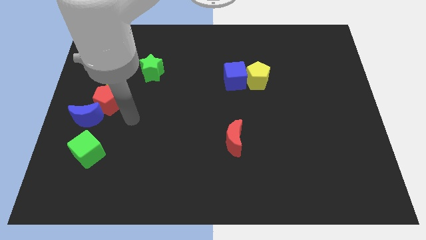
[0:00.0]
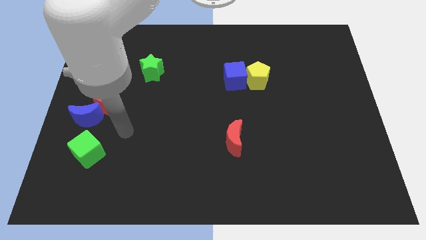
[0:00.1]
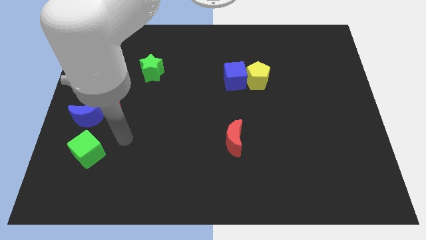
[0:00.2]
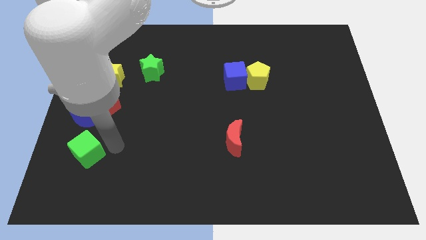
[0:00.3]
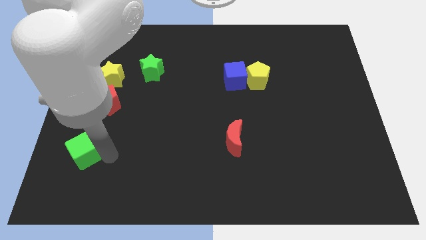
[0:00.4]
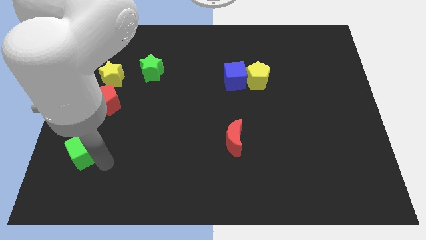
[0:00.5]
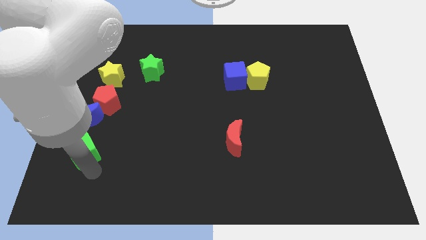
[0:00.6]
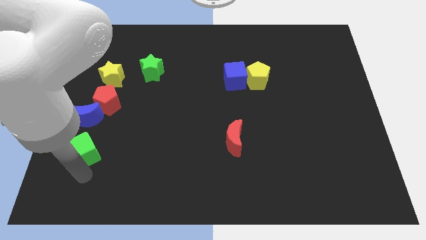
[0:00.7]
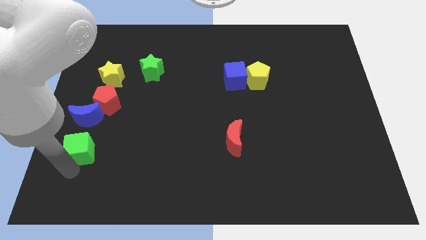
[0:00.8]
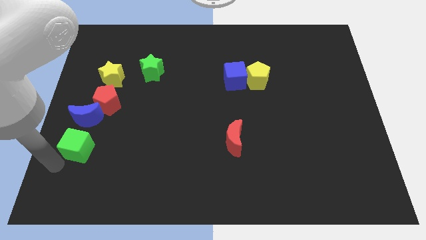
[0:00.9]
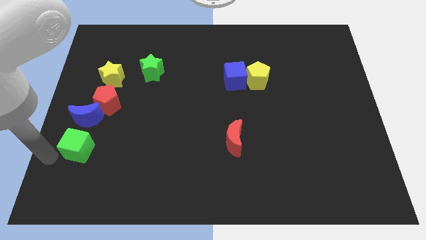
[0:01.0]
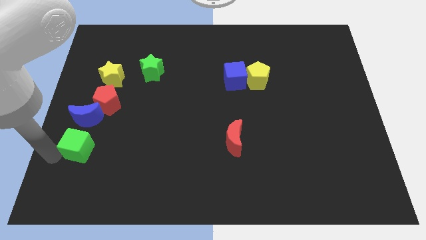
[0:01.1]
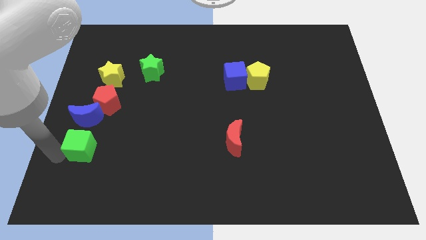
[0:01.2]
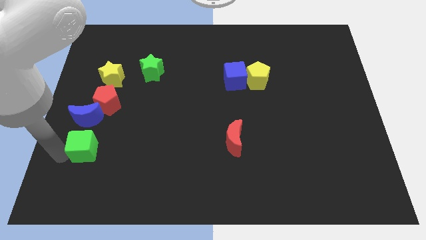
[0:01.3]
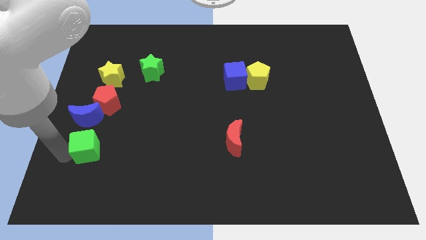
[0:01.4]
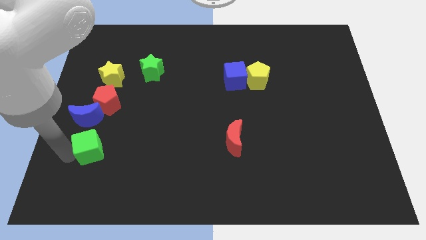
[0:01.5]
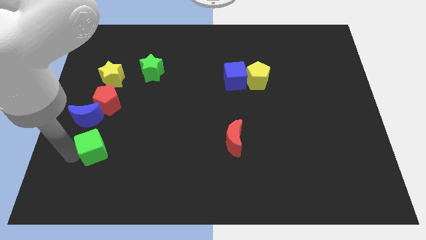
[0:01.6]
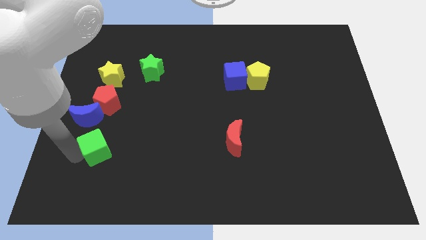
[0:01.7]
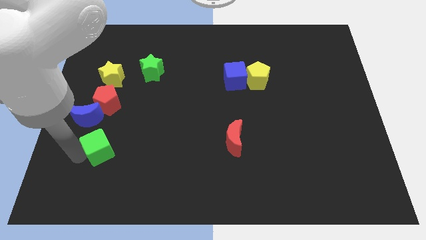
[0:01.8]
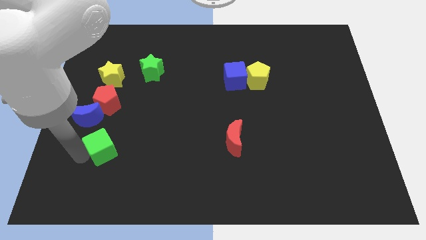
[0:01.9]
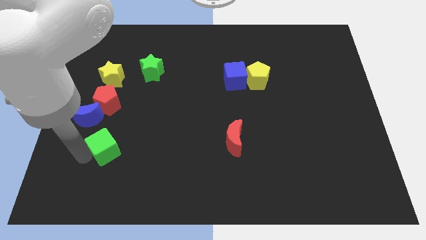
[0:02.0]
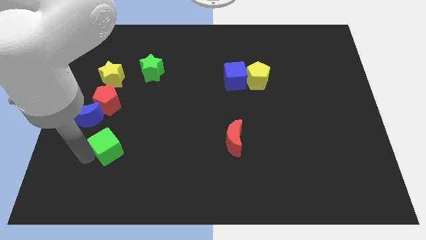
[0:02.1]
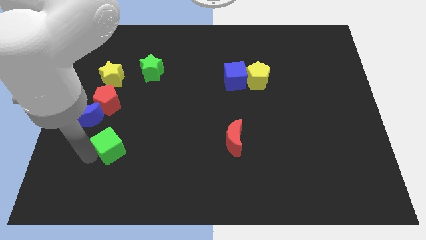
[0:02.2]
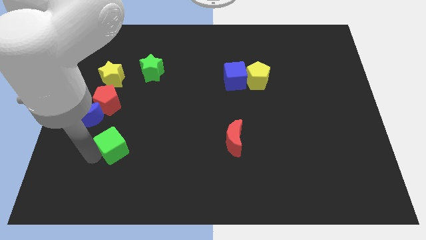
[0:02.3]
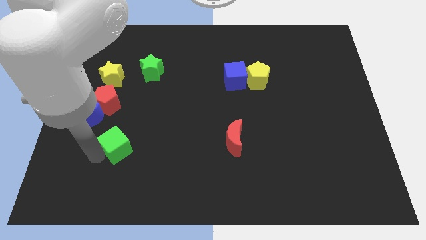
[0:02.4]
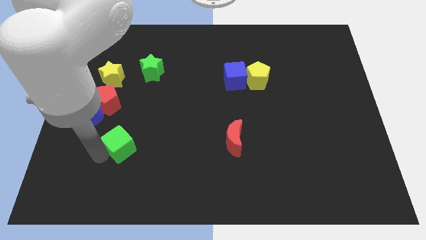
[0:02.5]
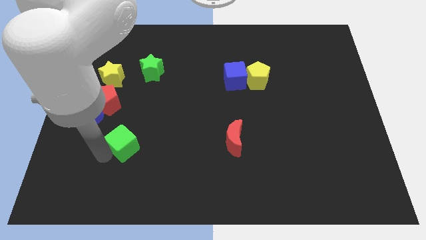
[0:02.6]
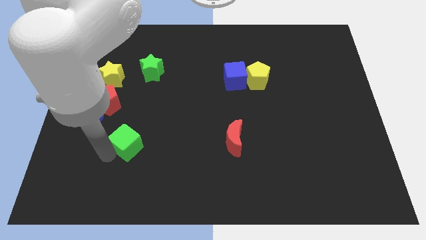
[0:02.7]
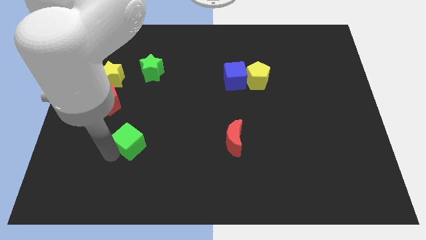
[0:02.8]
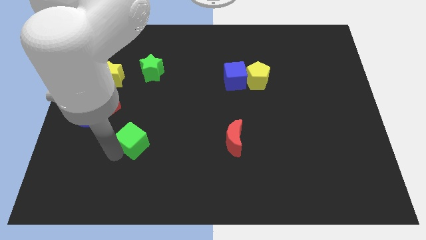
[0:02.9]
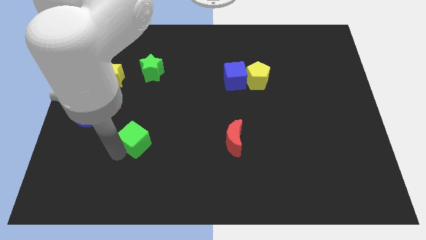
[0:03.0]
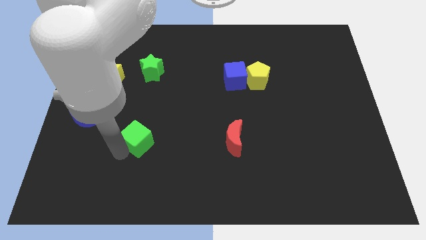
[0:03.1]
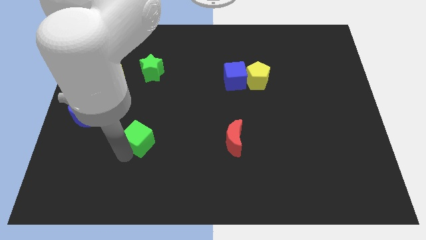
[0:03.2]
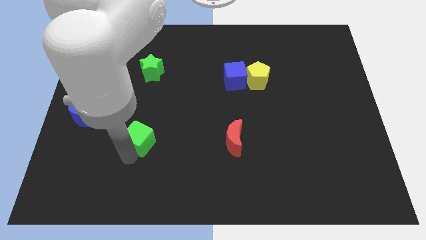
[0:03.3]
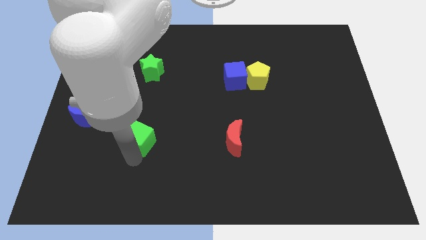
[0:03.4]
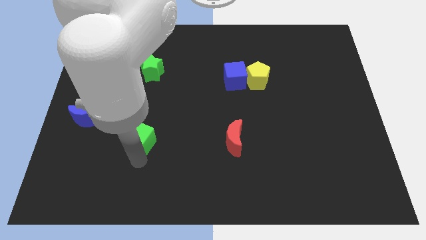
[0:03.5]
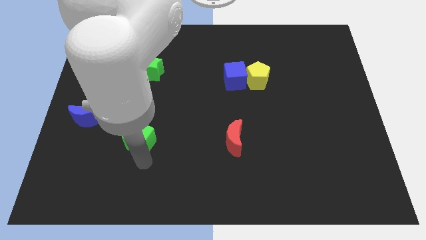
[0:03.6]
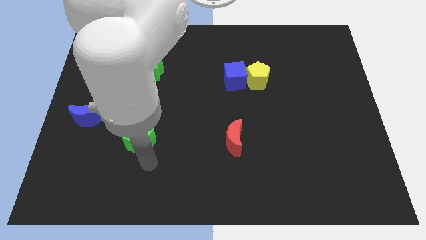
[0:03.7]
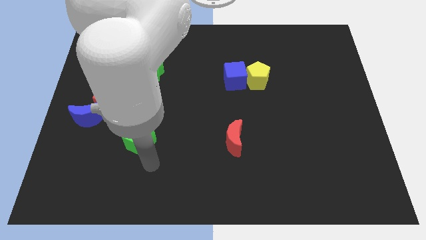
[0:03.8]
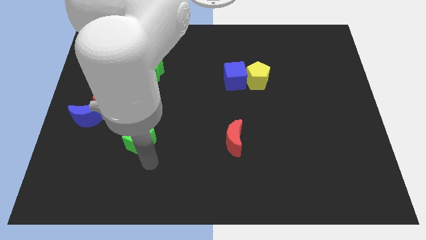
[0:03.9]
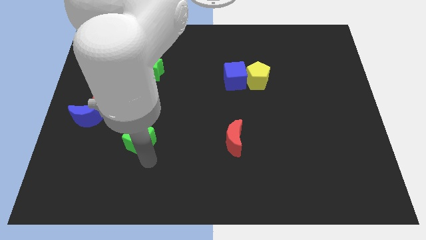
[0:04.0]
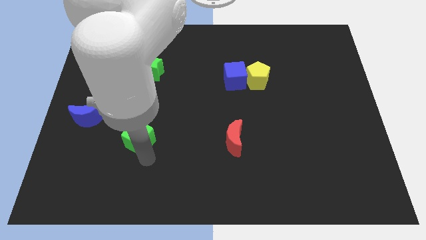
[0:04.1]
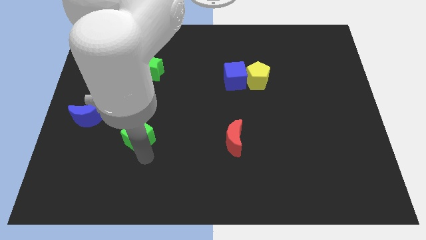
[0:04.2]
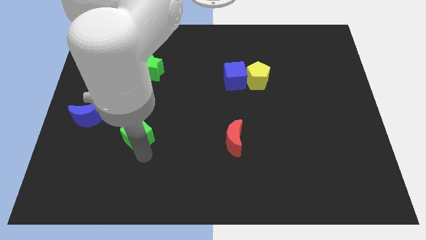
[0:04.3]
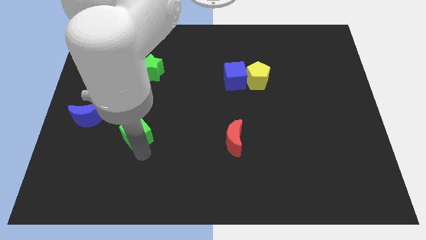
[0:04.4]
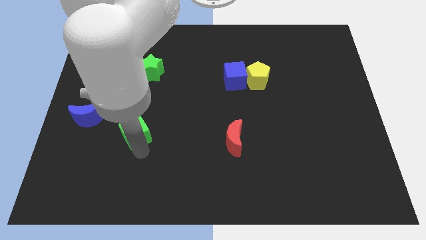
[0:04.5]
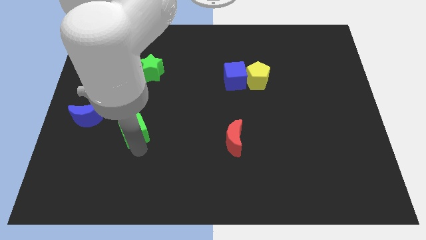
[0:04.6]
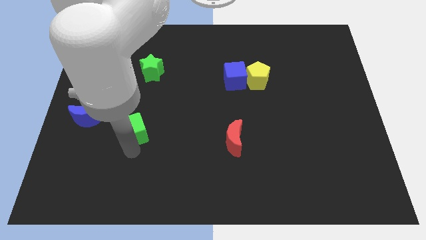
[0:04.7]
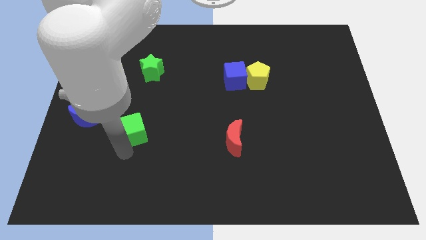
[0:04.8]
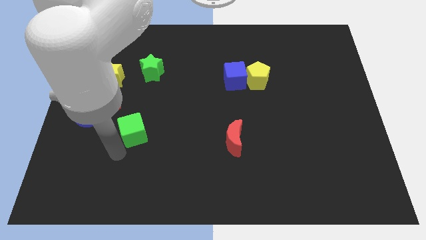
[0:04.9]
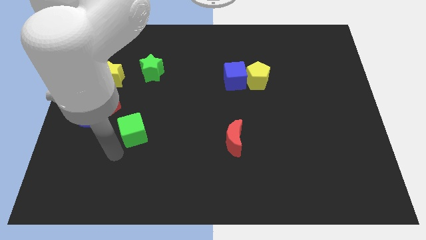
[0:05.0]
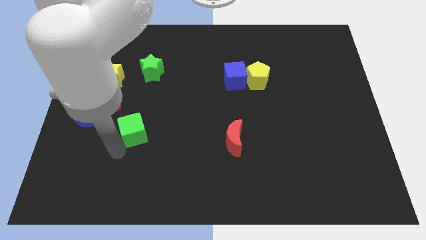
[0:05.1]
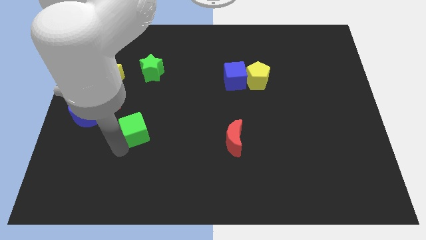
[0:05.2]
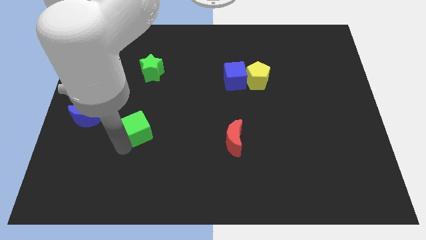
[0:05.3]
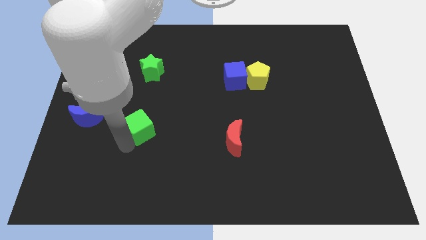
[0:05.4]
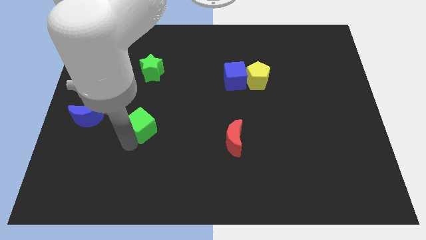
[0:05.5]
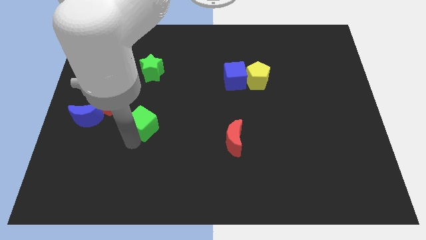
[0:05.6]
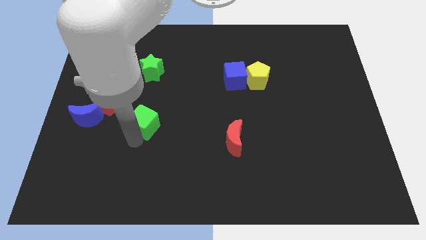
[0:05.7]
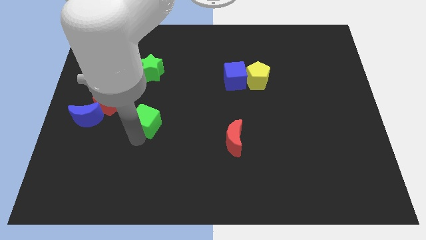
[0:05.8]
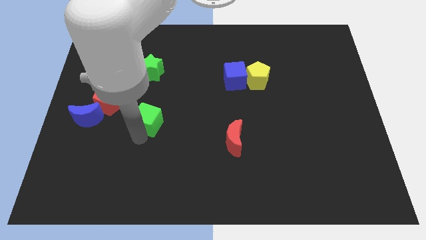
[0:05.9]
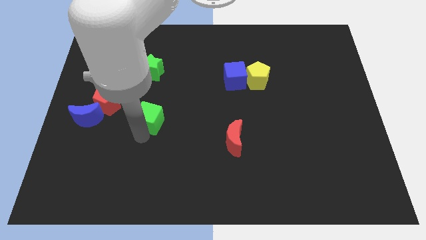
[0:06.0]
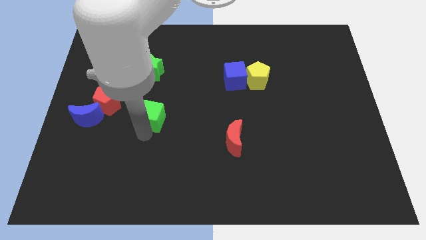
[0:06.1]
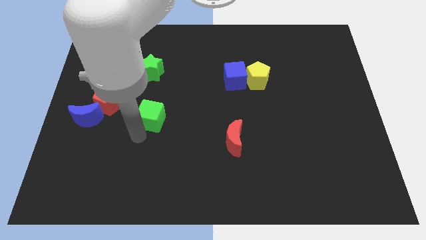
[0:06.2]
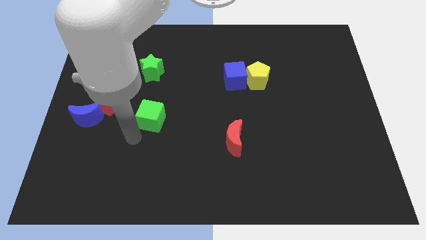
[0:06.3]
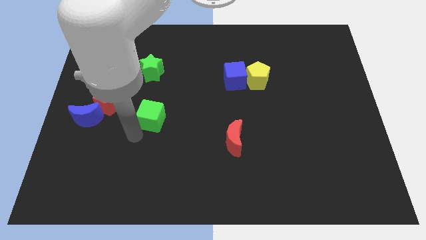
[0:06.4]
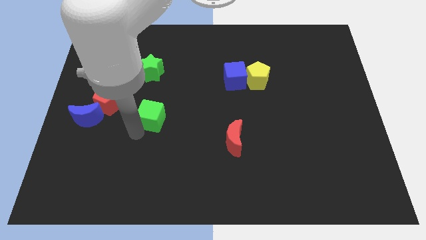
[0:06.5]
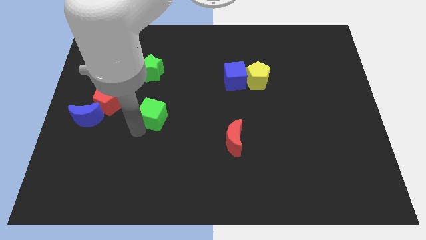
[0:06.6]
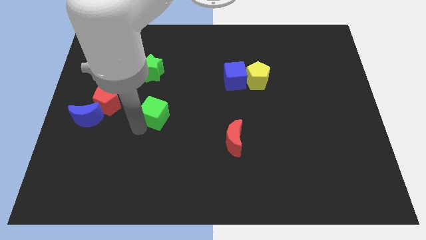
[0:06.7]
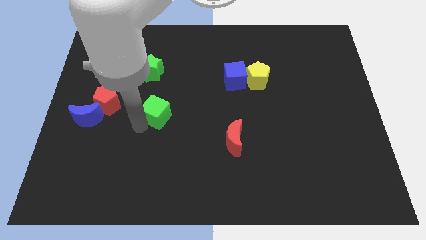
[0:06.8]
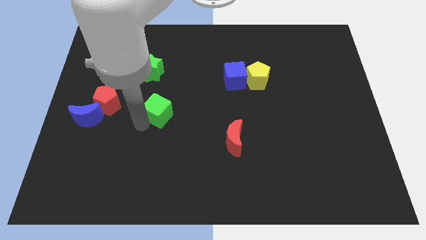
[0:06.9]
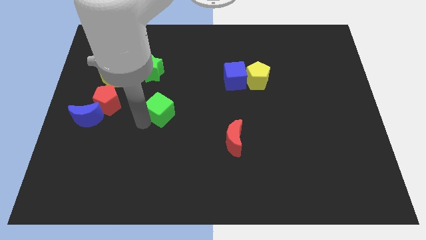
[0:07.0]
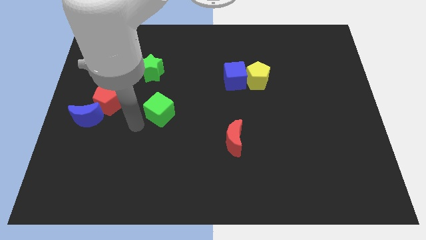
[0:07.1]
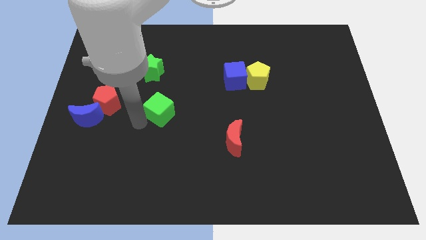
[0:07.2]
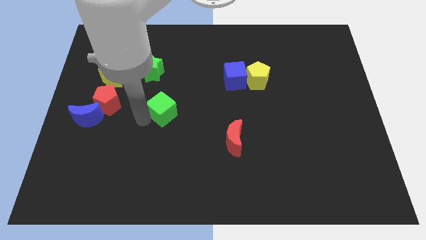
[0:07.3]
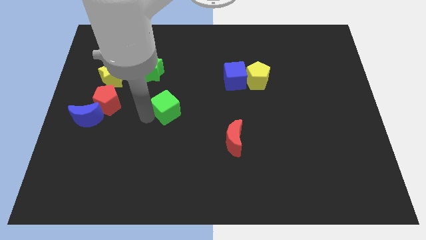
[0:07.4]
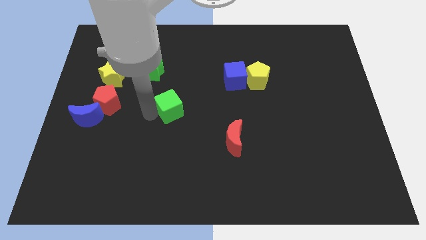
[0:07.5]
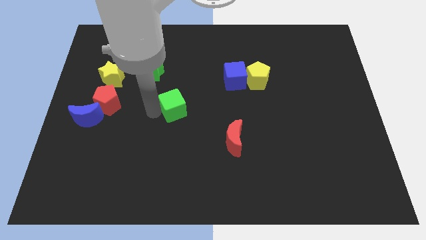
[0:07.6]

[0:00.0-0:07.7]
move the green cube upwards and to the right

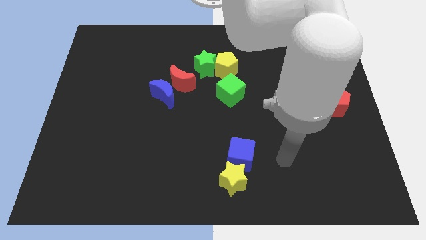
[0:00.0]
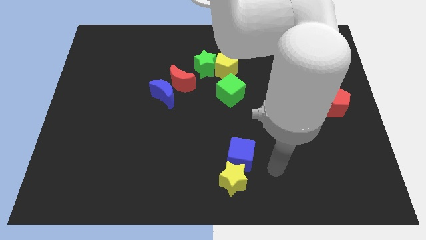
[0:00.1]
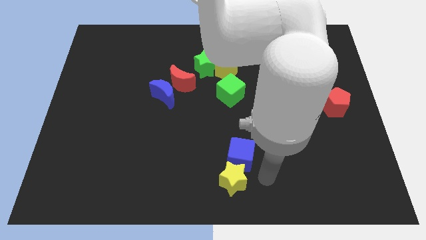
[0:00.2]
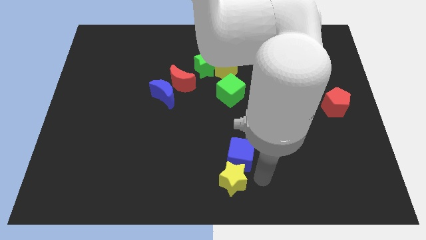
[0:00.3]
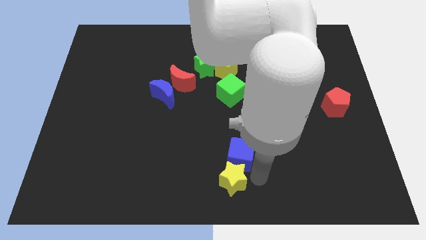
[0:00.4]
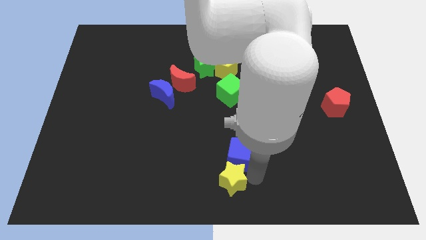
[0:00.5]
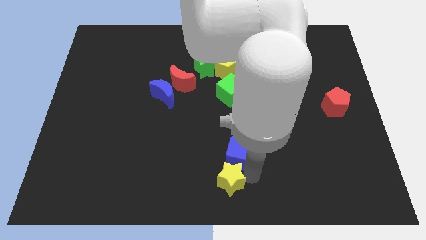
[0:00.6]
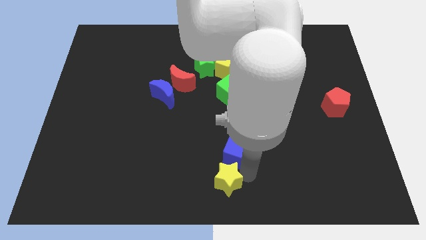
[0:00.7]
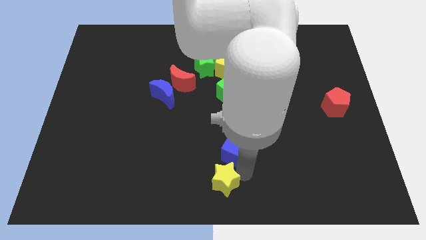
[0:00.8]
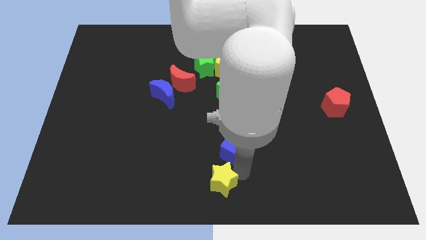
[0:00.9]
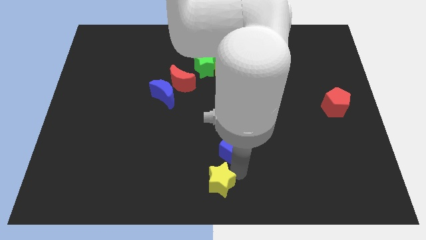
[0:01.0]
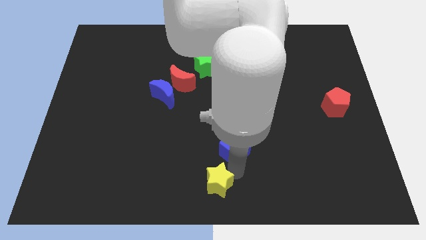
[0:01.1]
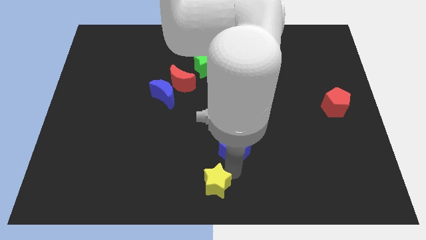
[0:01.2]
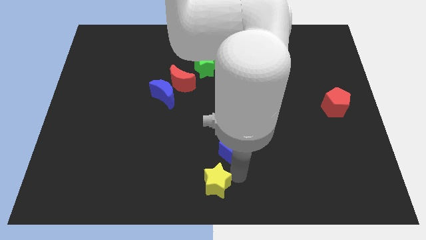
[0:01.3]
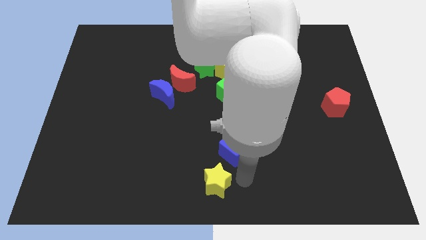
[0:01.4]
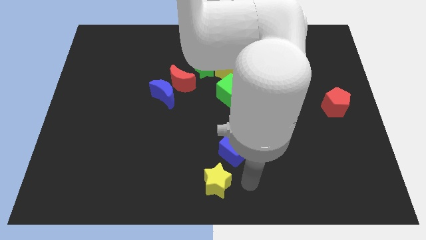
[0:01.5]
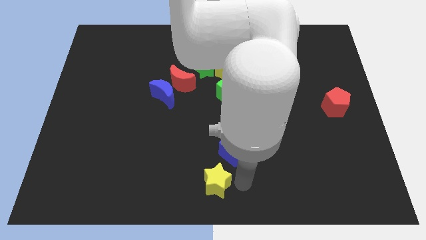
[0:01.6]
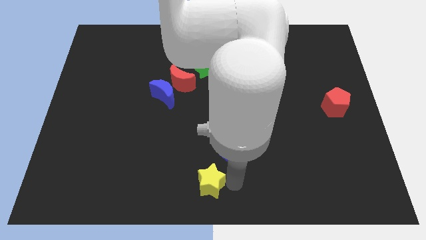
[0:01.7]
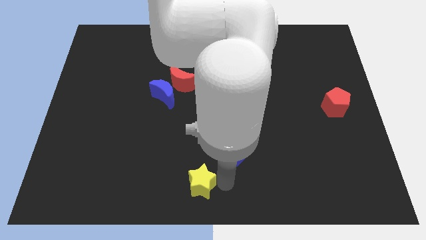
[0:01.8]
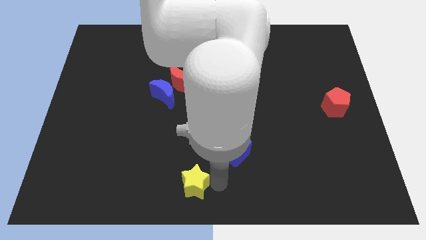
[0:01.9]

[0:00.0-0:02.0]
slightly slide the yellow star to the left
